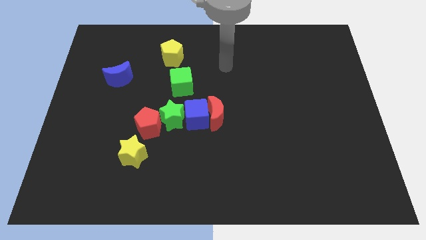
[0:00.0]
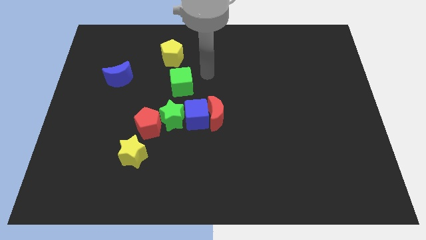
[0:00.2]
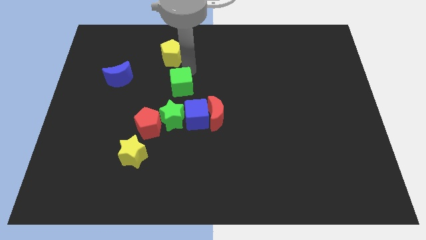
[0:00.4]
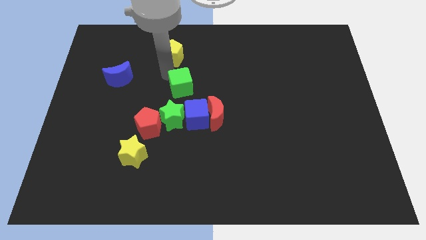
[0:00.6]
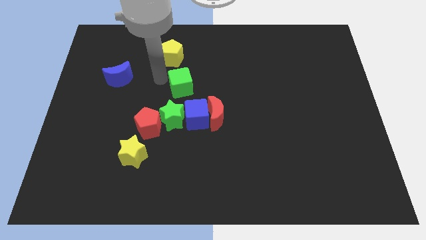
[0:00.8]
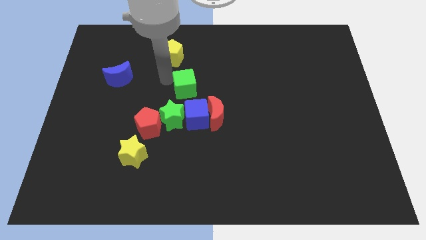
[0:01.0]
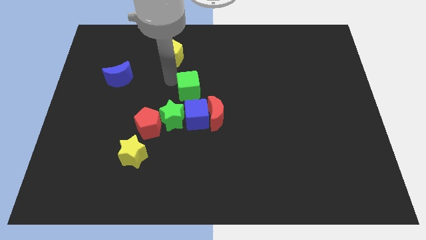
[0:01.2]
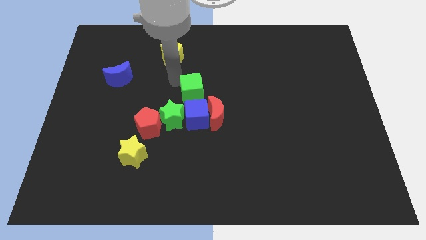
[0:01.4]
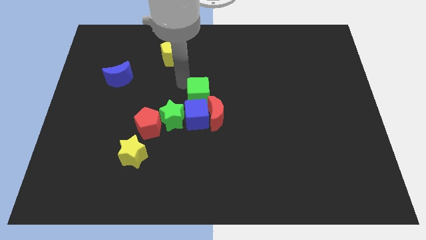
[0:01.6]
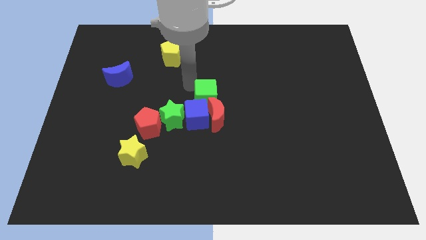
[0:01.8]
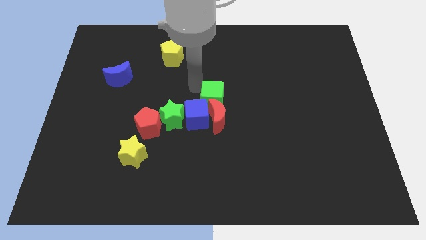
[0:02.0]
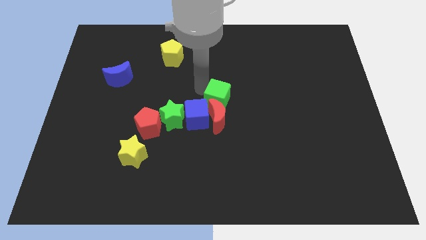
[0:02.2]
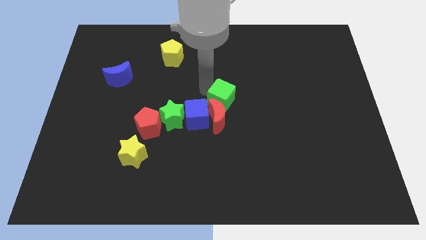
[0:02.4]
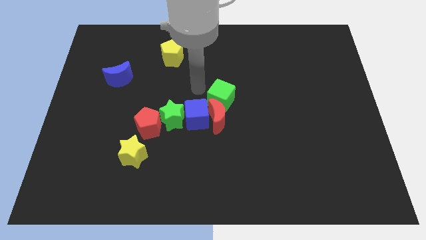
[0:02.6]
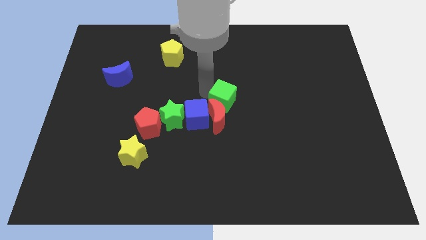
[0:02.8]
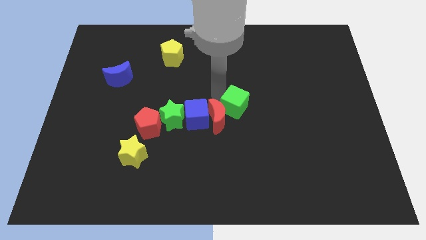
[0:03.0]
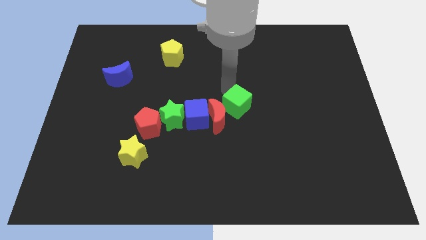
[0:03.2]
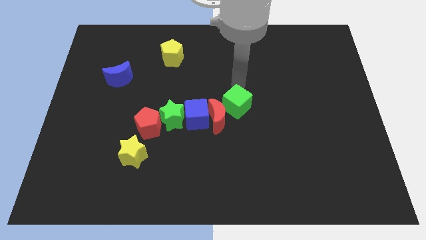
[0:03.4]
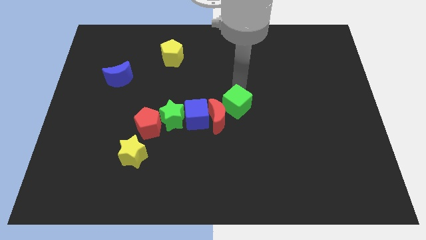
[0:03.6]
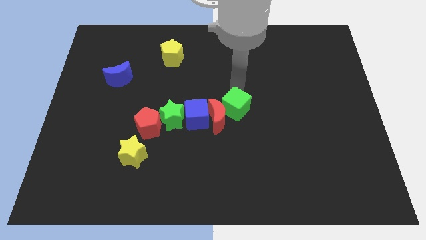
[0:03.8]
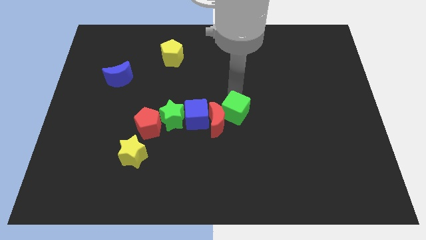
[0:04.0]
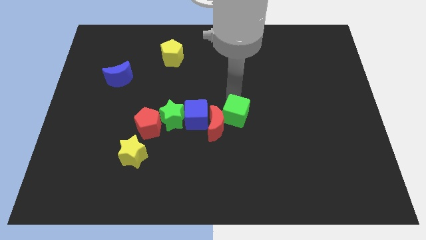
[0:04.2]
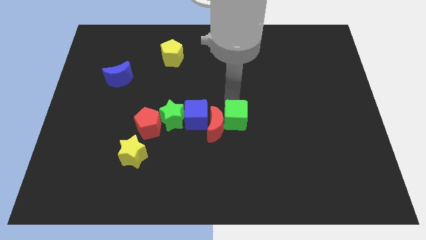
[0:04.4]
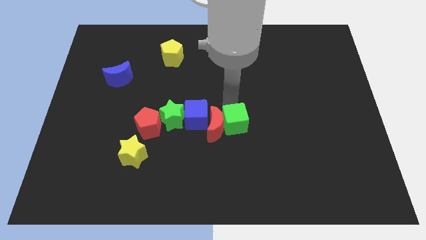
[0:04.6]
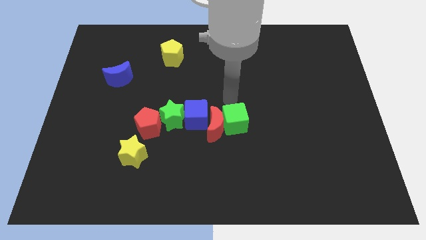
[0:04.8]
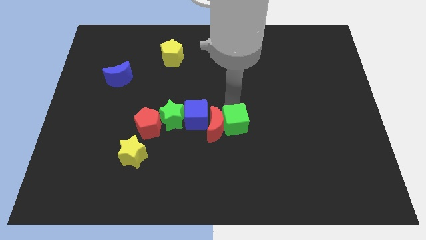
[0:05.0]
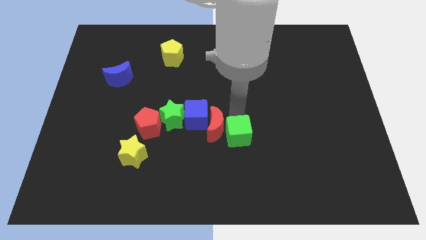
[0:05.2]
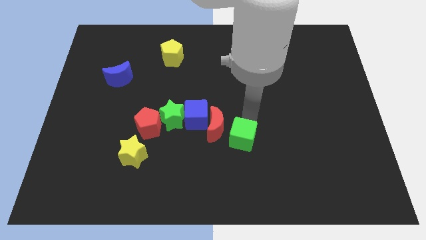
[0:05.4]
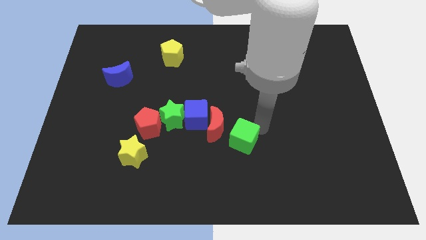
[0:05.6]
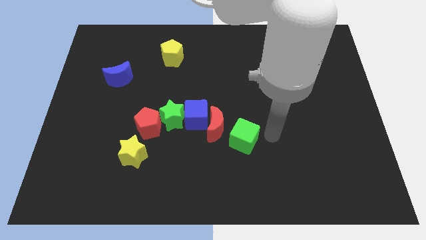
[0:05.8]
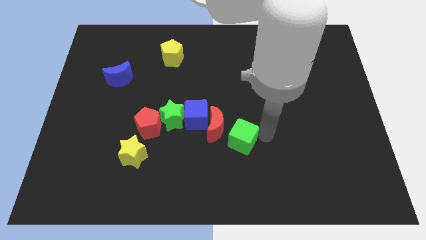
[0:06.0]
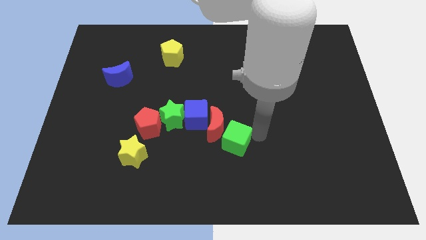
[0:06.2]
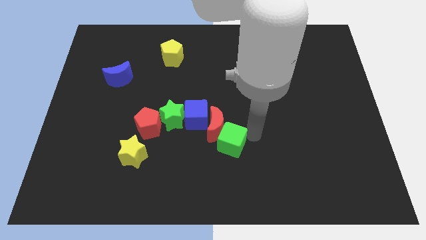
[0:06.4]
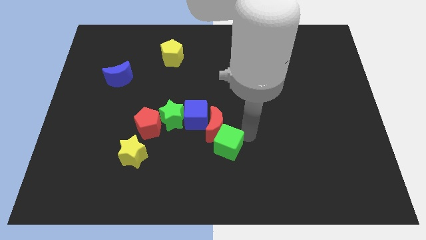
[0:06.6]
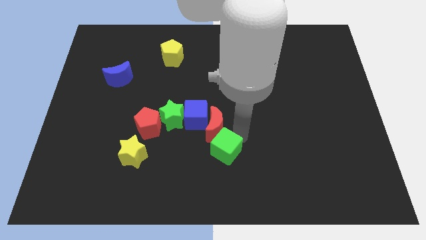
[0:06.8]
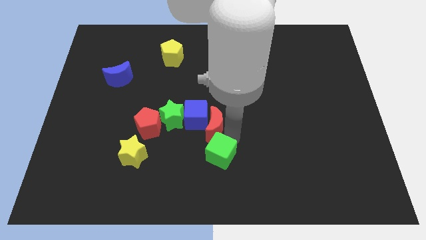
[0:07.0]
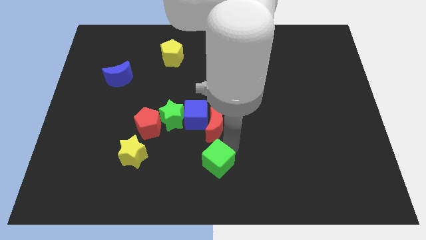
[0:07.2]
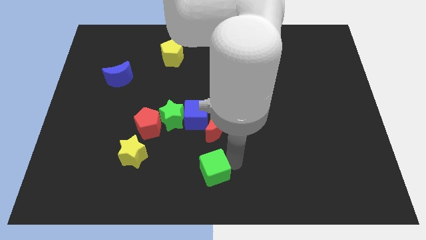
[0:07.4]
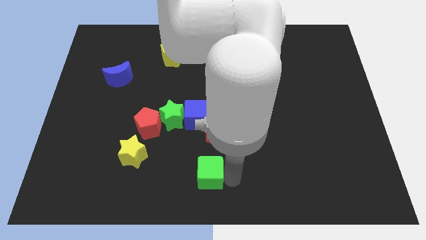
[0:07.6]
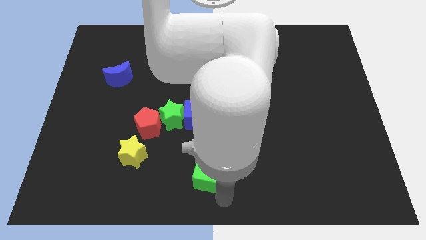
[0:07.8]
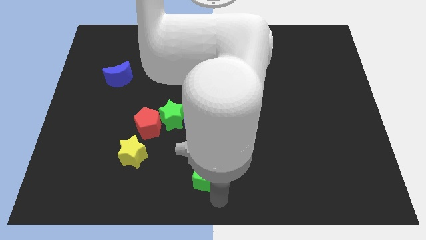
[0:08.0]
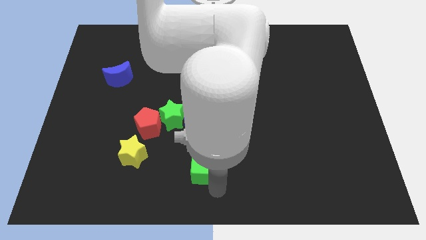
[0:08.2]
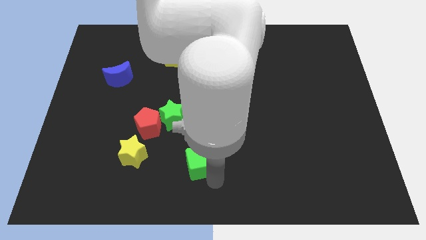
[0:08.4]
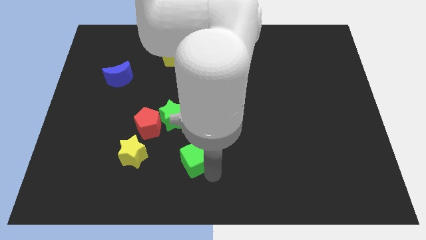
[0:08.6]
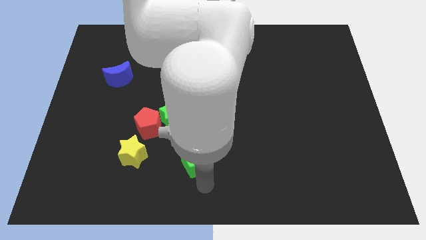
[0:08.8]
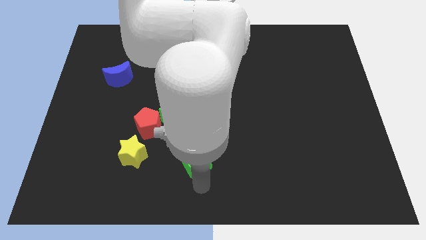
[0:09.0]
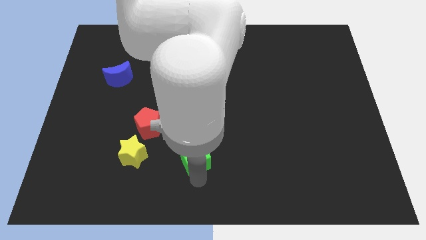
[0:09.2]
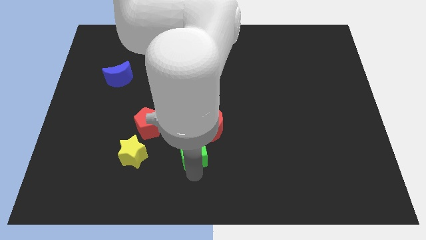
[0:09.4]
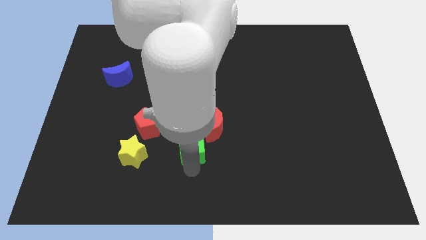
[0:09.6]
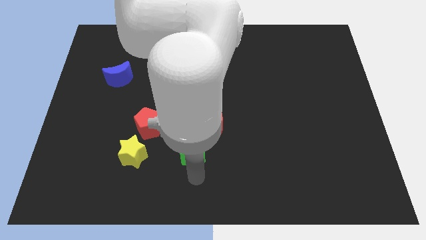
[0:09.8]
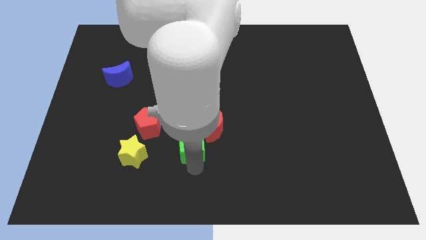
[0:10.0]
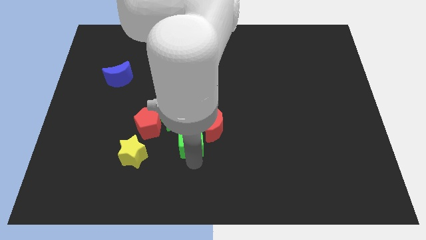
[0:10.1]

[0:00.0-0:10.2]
push the green cube diagonally down and to the left of the blue cube

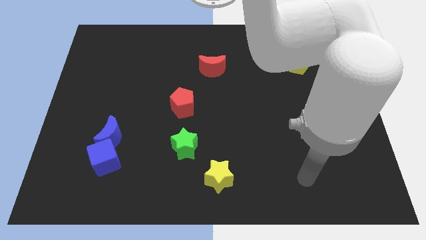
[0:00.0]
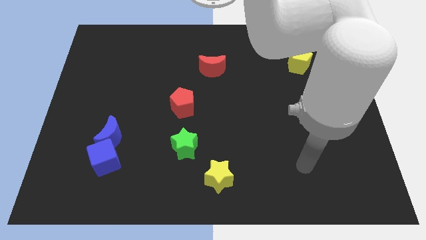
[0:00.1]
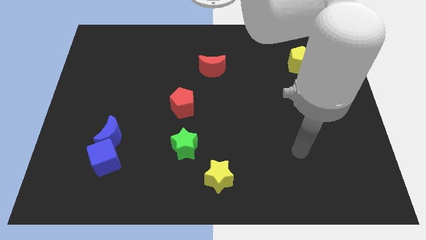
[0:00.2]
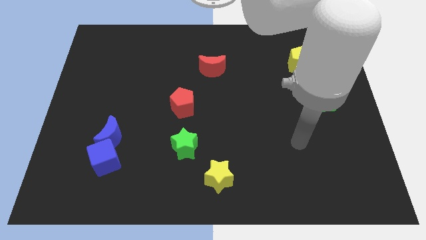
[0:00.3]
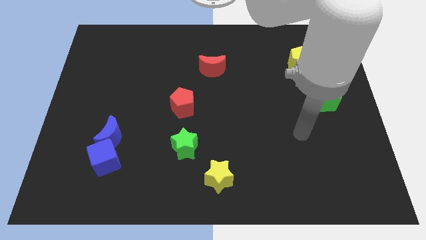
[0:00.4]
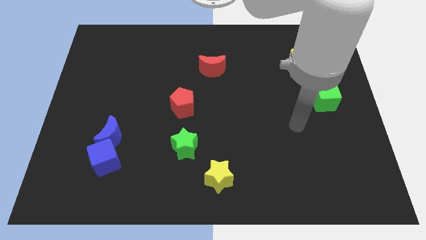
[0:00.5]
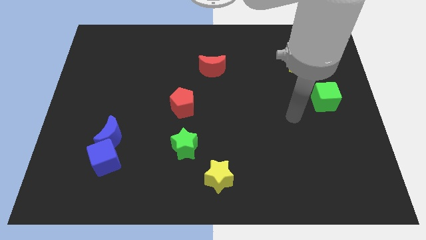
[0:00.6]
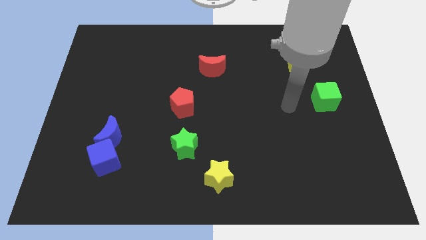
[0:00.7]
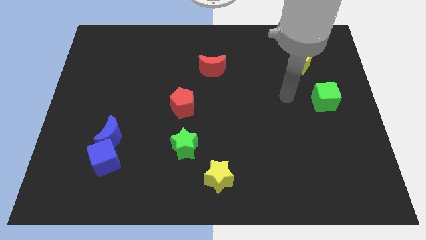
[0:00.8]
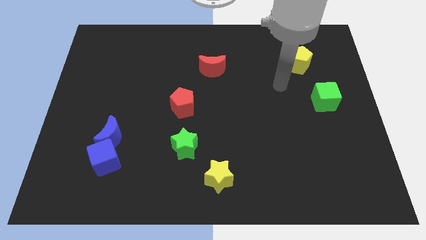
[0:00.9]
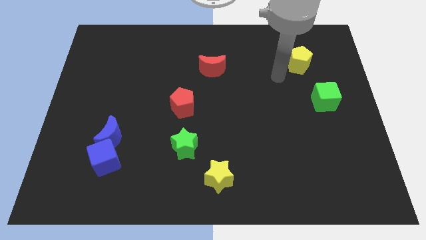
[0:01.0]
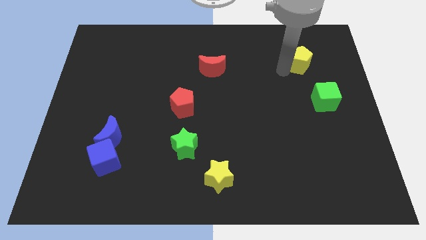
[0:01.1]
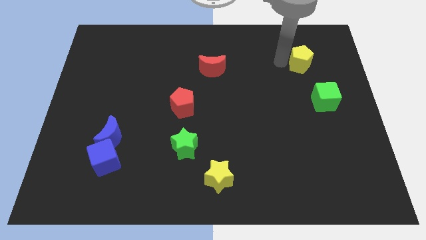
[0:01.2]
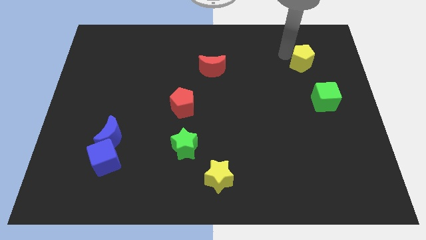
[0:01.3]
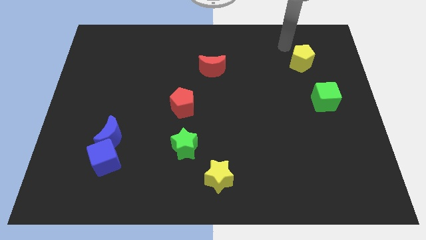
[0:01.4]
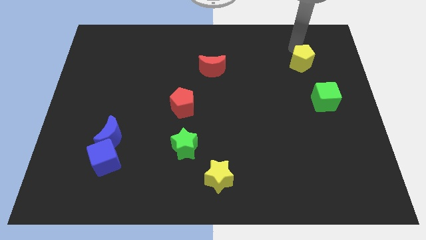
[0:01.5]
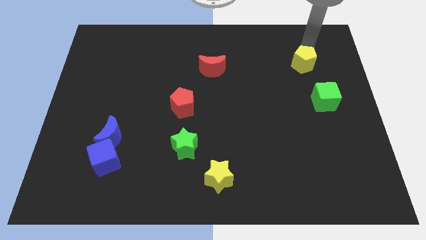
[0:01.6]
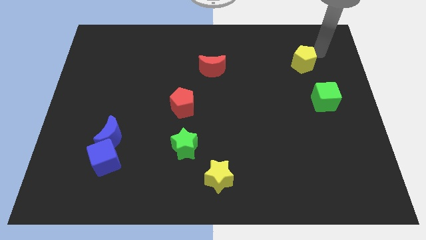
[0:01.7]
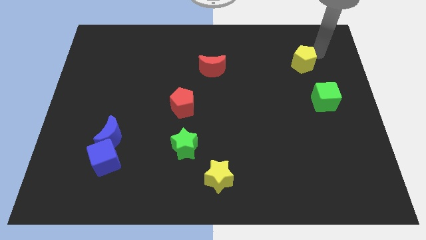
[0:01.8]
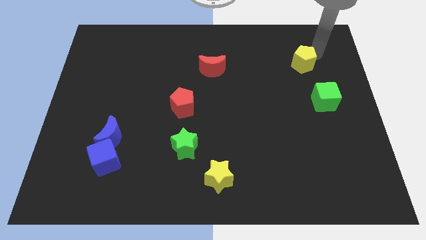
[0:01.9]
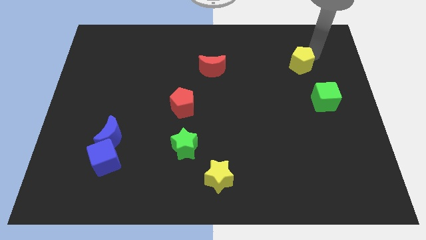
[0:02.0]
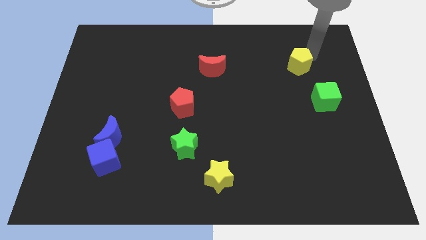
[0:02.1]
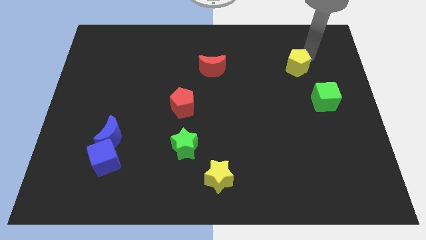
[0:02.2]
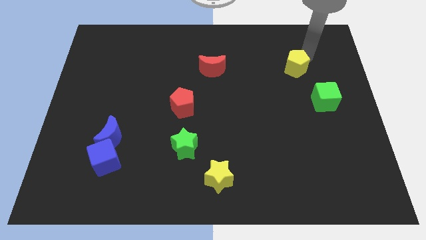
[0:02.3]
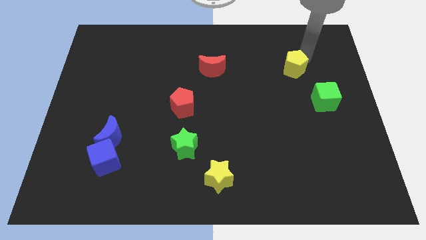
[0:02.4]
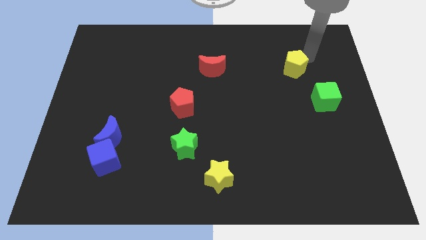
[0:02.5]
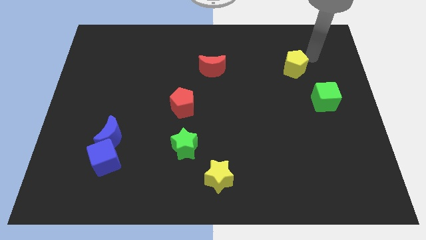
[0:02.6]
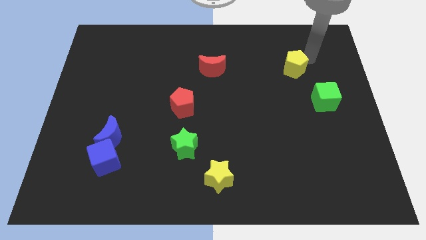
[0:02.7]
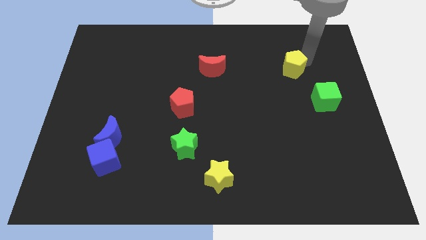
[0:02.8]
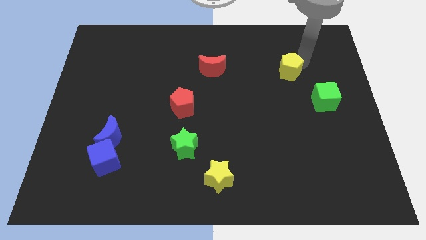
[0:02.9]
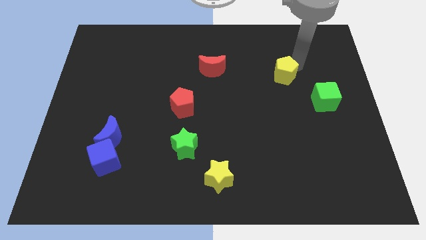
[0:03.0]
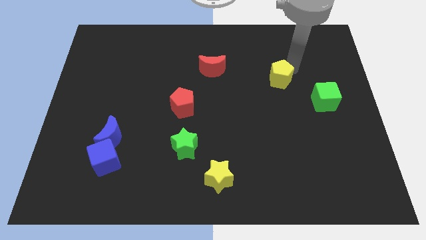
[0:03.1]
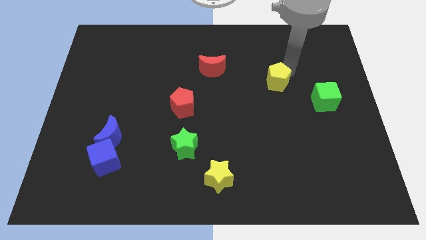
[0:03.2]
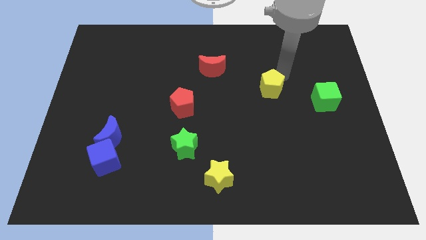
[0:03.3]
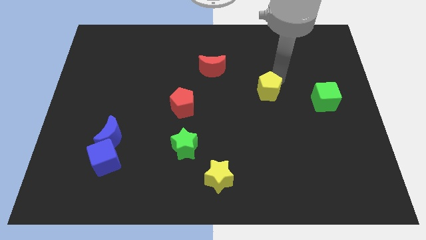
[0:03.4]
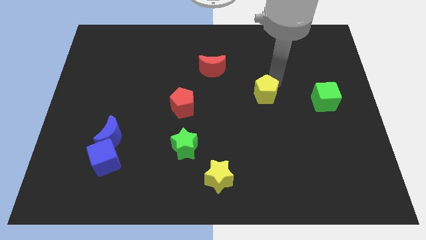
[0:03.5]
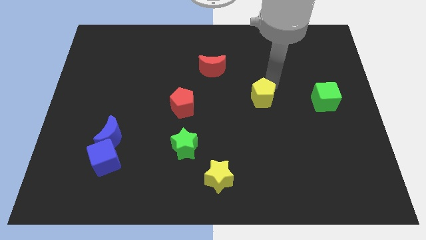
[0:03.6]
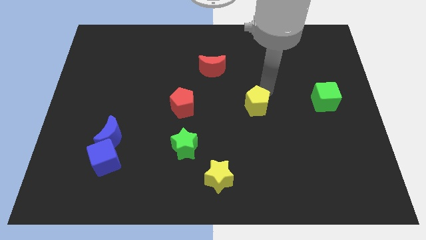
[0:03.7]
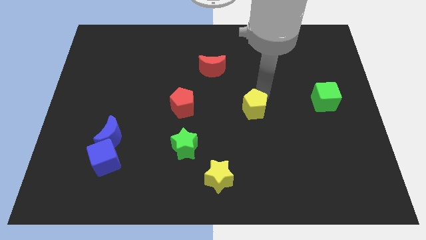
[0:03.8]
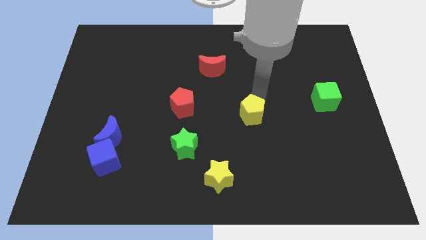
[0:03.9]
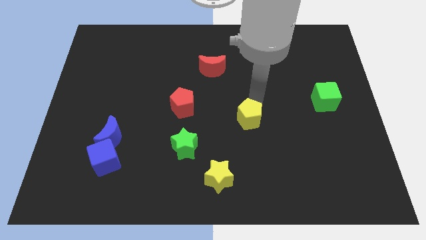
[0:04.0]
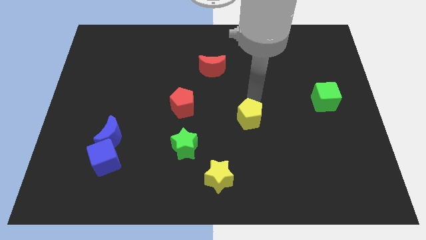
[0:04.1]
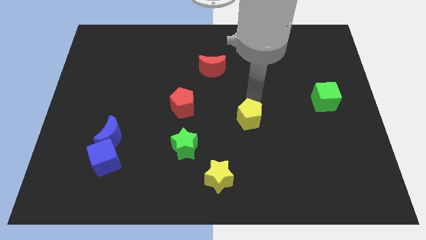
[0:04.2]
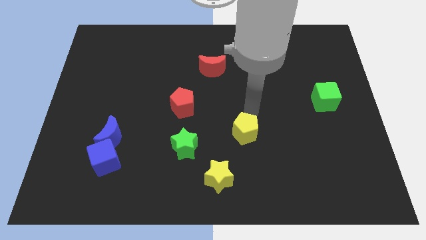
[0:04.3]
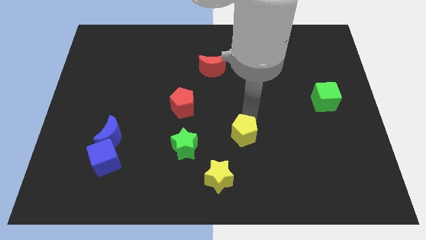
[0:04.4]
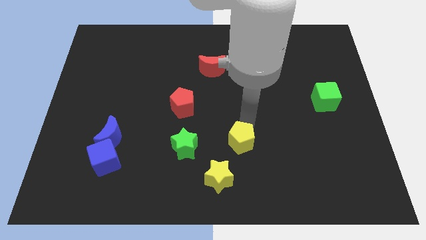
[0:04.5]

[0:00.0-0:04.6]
move the yellow pentagon to the top right side of the yellow star
